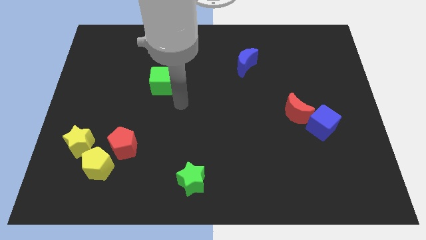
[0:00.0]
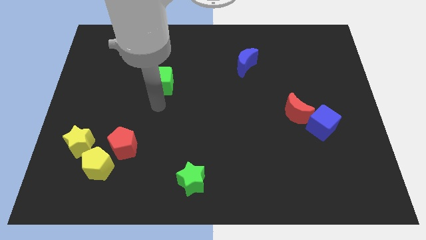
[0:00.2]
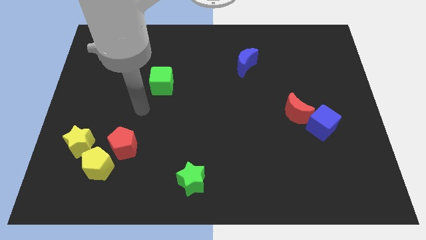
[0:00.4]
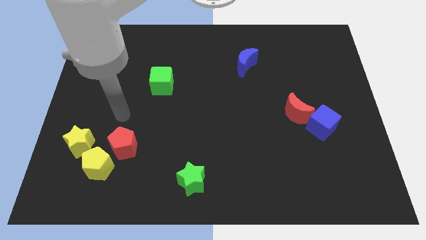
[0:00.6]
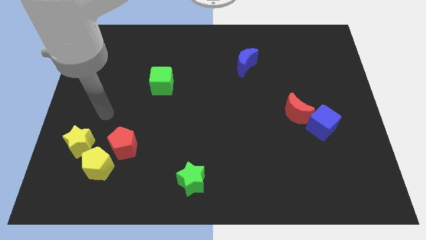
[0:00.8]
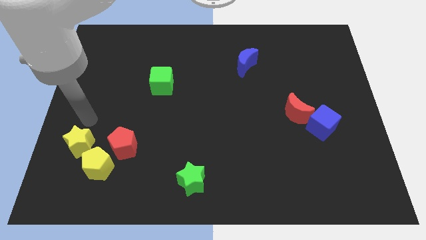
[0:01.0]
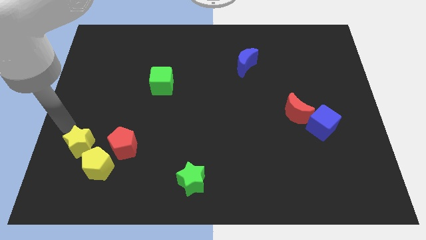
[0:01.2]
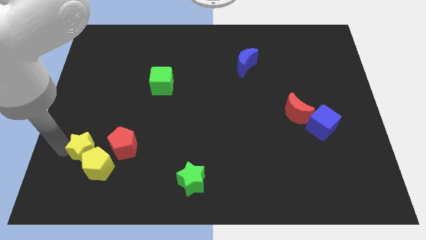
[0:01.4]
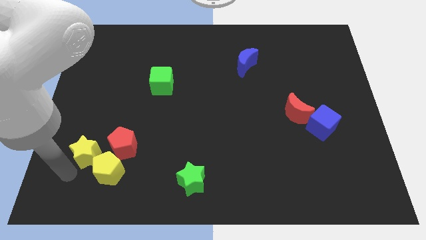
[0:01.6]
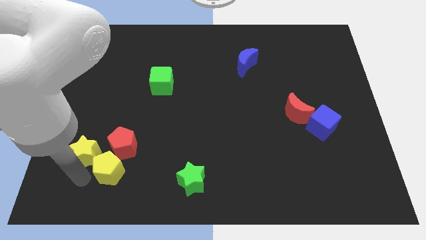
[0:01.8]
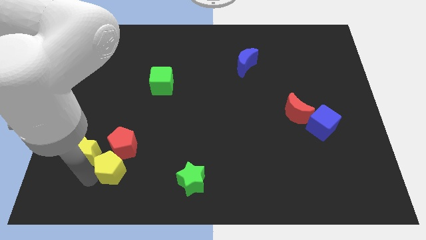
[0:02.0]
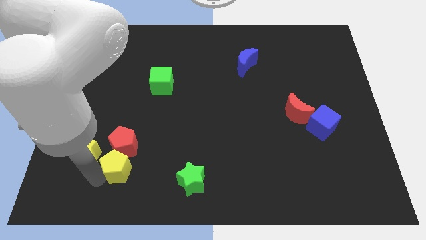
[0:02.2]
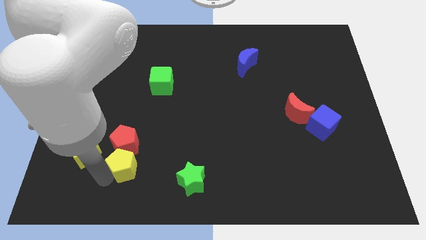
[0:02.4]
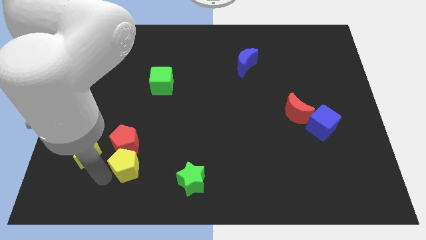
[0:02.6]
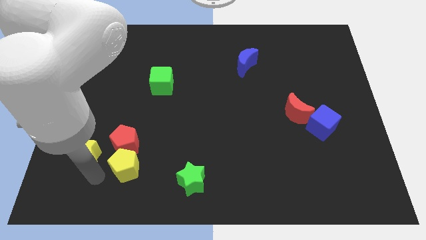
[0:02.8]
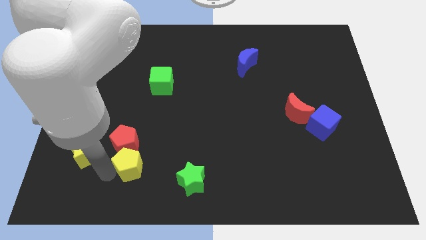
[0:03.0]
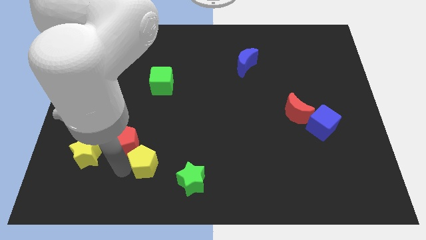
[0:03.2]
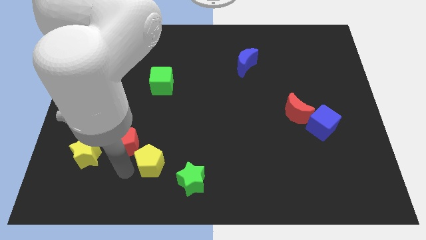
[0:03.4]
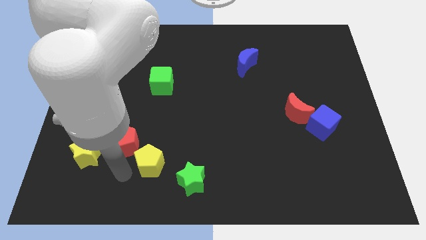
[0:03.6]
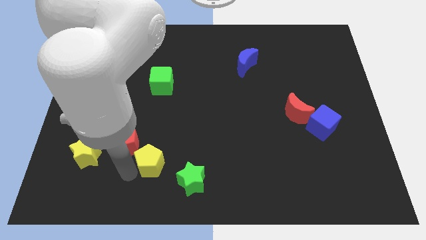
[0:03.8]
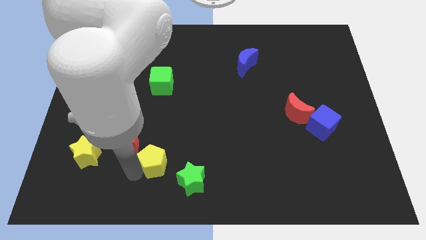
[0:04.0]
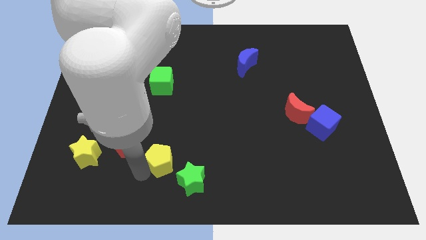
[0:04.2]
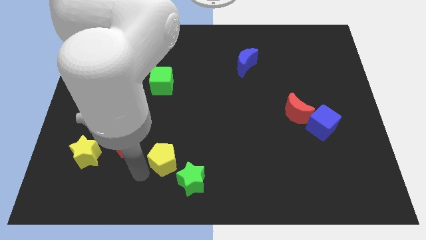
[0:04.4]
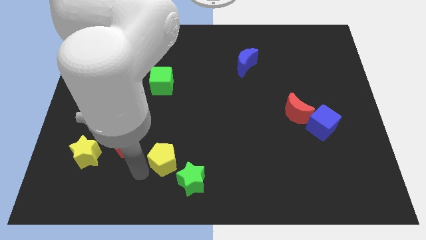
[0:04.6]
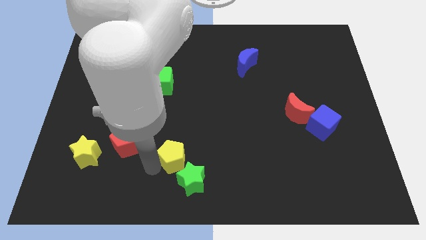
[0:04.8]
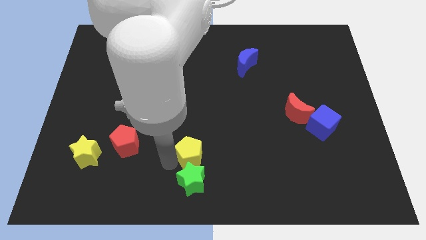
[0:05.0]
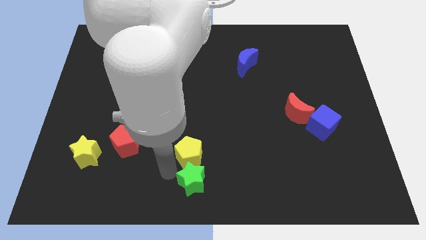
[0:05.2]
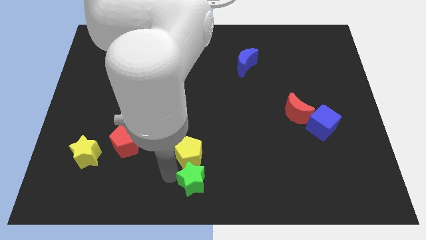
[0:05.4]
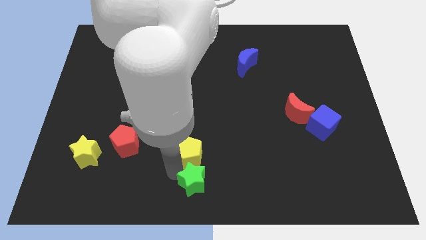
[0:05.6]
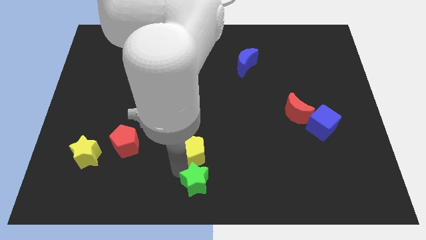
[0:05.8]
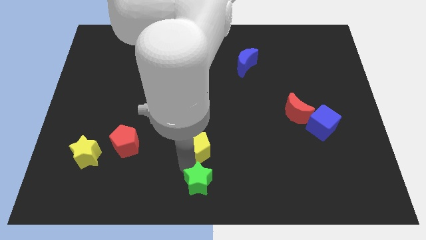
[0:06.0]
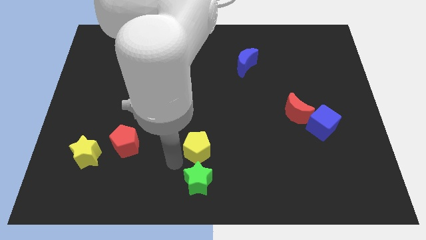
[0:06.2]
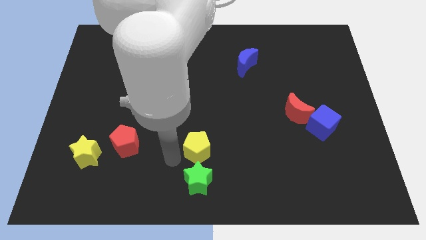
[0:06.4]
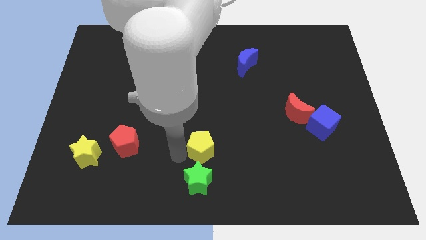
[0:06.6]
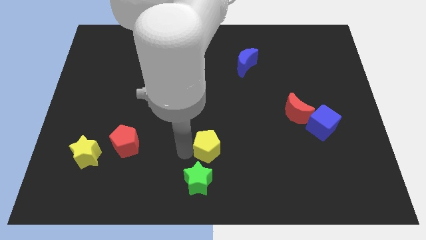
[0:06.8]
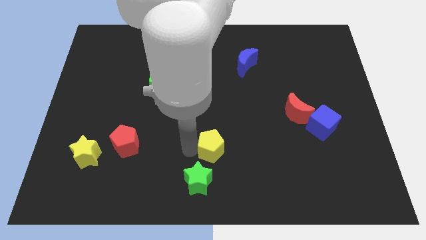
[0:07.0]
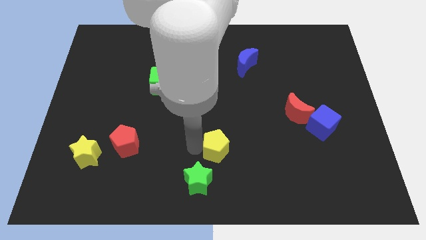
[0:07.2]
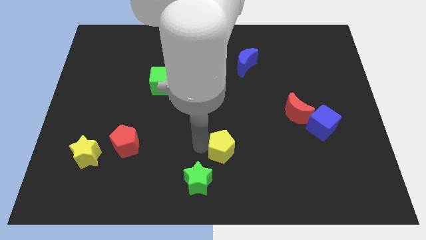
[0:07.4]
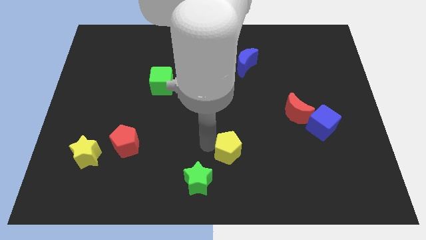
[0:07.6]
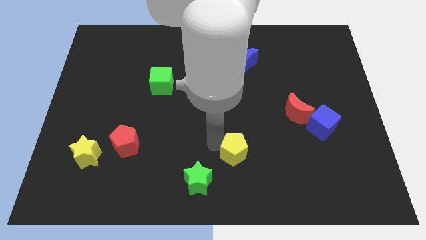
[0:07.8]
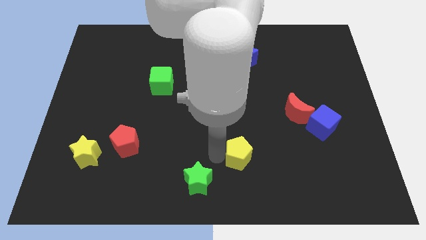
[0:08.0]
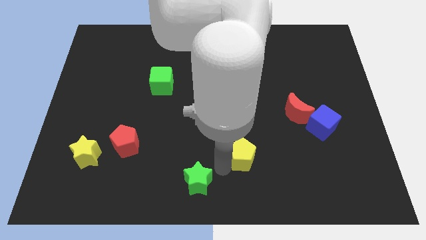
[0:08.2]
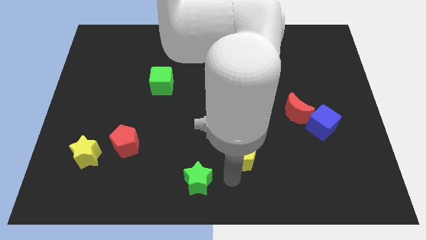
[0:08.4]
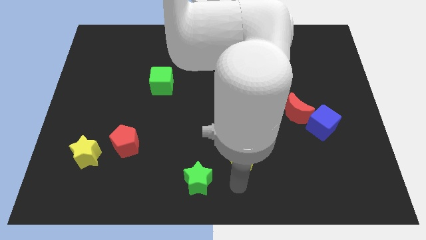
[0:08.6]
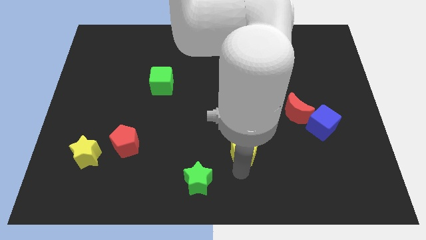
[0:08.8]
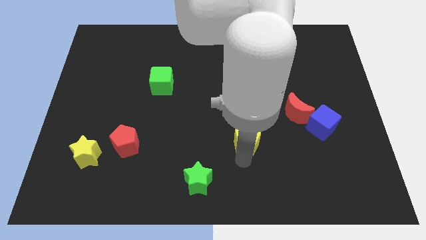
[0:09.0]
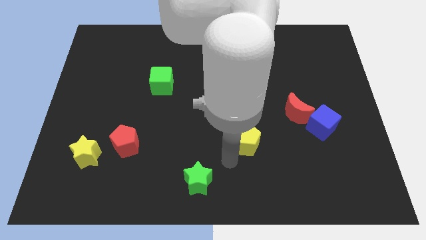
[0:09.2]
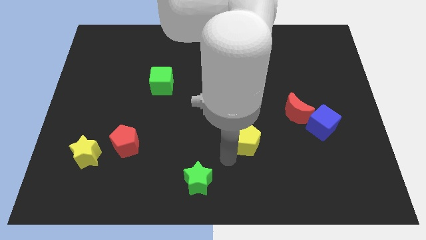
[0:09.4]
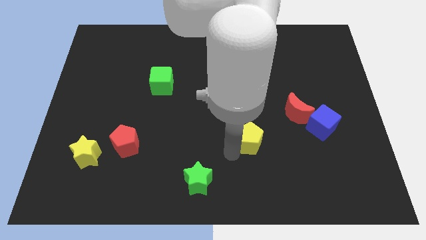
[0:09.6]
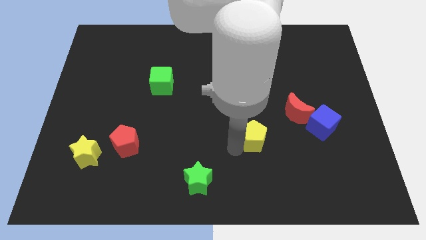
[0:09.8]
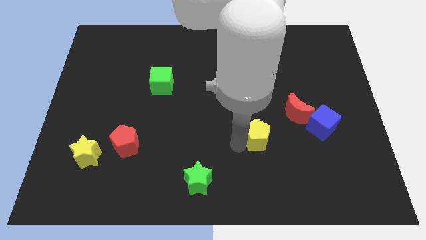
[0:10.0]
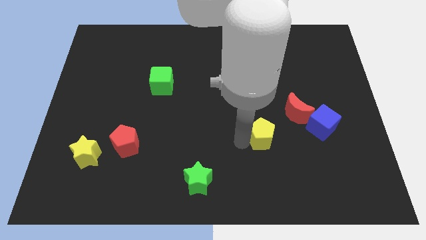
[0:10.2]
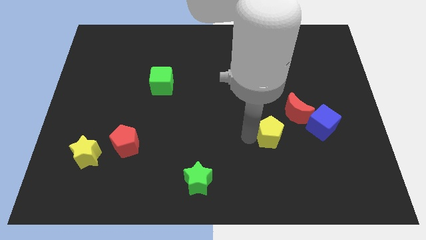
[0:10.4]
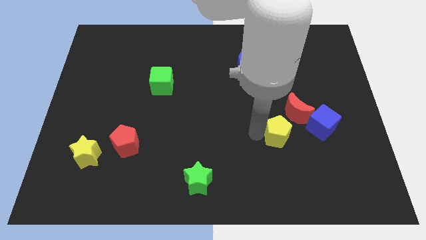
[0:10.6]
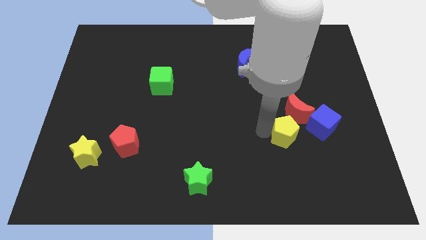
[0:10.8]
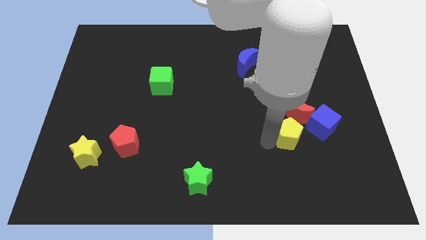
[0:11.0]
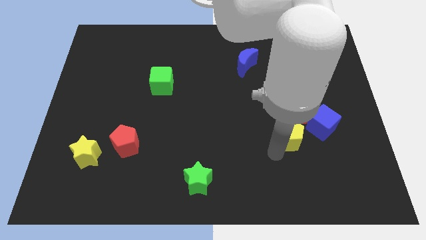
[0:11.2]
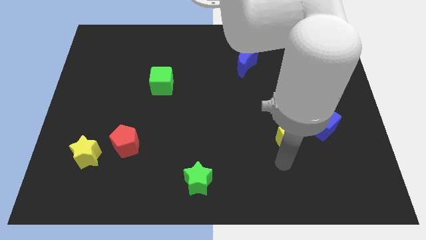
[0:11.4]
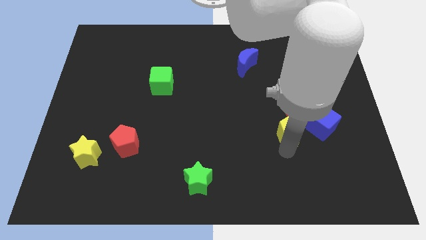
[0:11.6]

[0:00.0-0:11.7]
put the yellow pentagon to the red moon

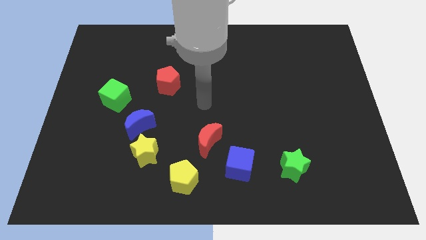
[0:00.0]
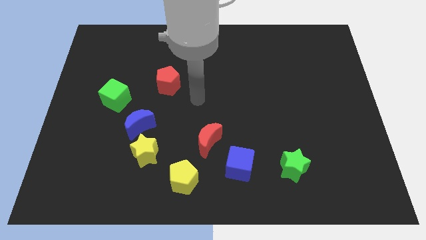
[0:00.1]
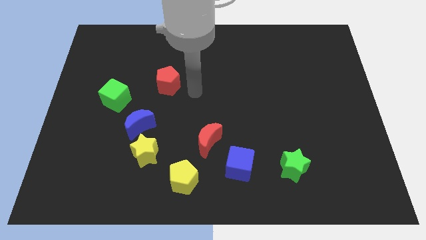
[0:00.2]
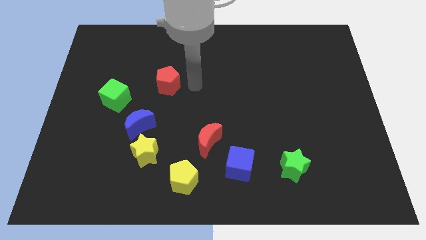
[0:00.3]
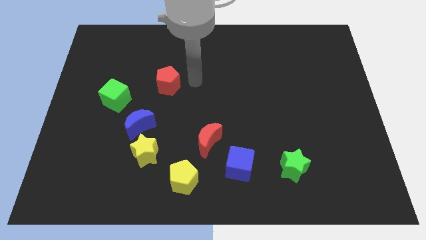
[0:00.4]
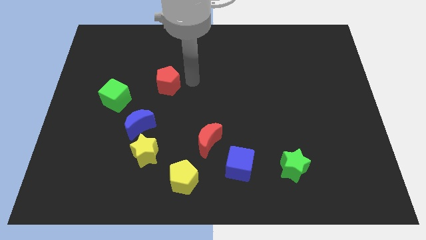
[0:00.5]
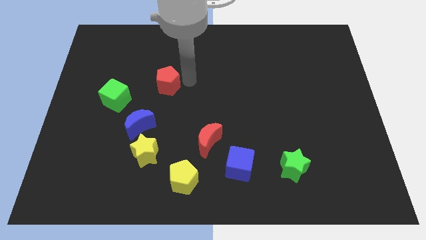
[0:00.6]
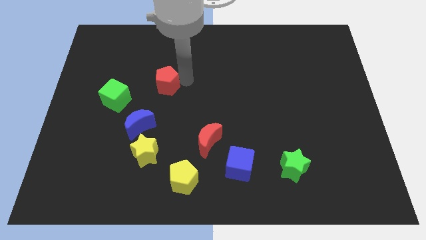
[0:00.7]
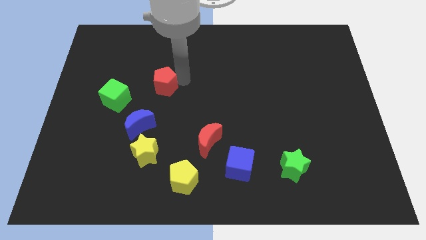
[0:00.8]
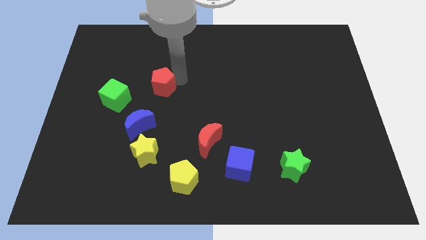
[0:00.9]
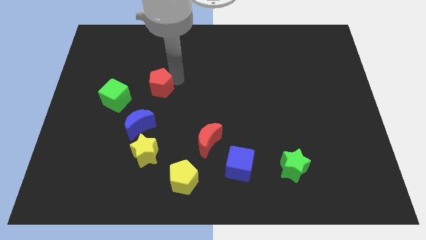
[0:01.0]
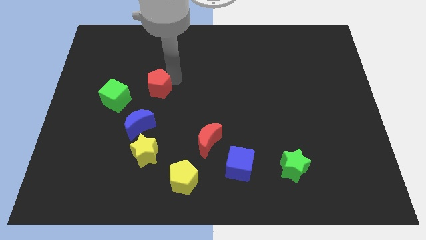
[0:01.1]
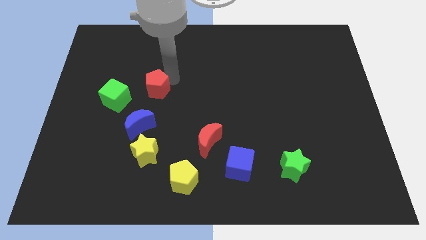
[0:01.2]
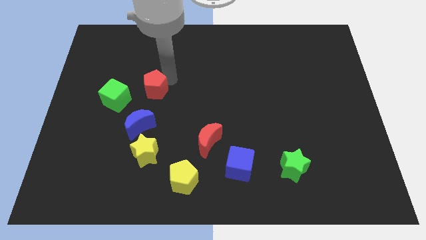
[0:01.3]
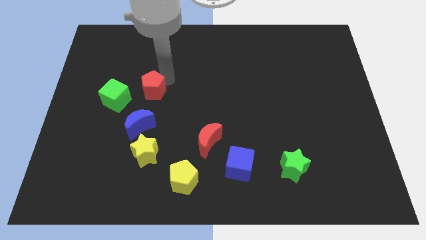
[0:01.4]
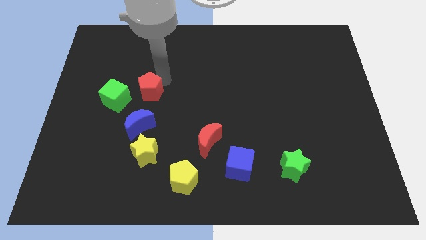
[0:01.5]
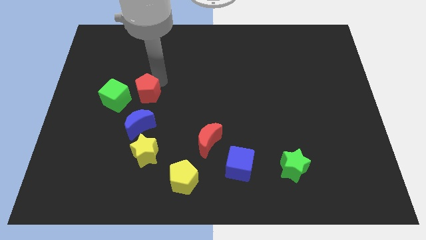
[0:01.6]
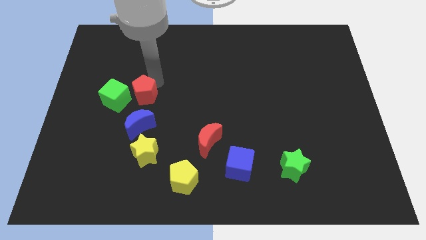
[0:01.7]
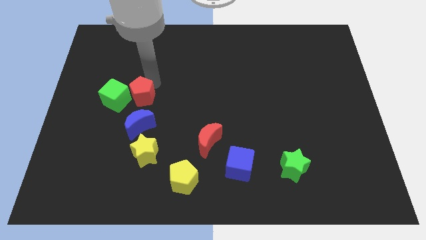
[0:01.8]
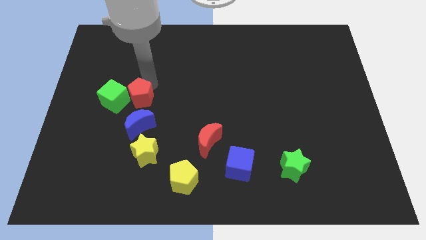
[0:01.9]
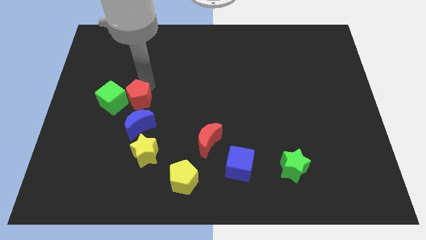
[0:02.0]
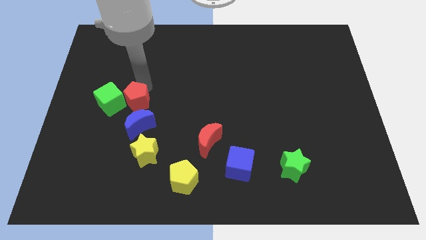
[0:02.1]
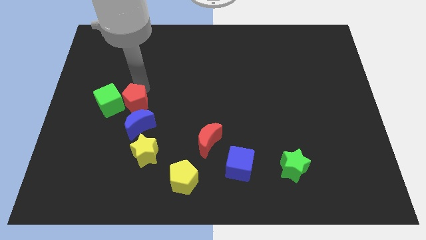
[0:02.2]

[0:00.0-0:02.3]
put the red pentagon to the green cube
